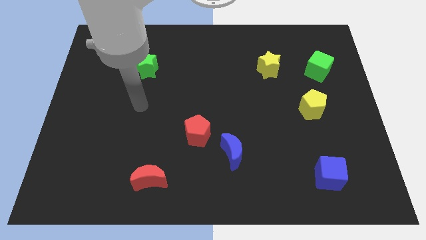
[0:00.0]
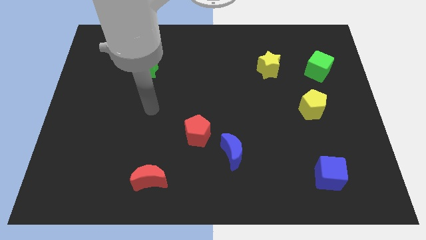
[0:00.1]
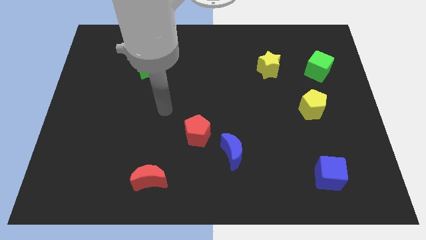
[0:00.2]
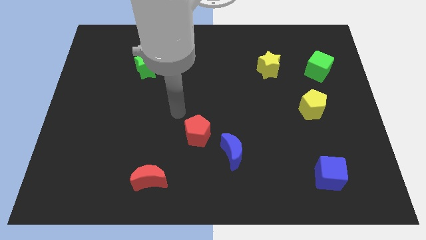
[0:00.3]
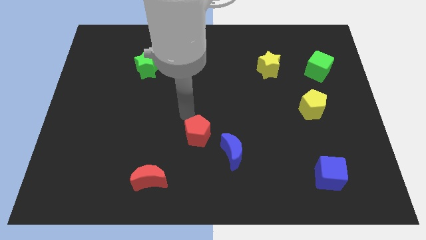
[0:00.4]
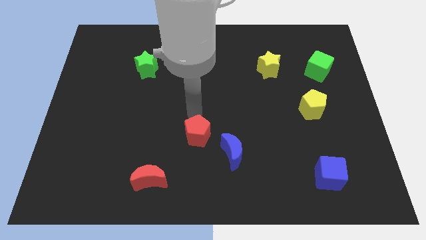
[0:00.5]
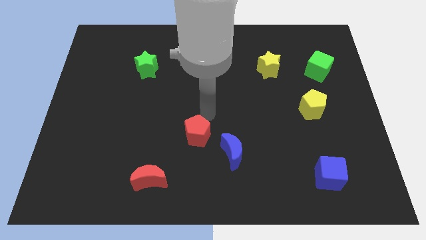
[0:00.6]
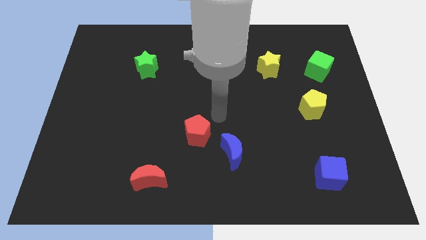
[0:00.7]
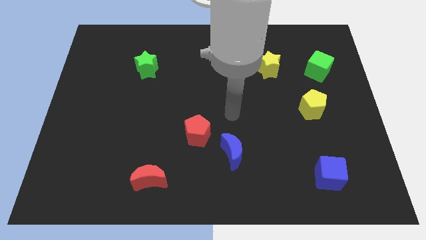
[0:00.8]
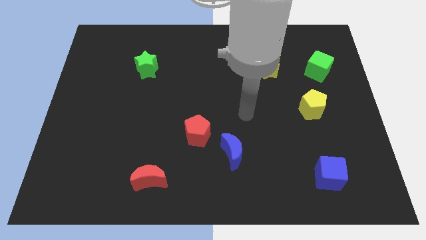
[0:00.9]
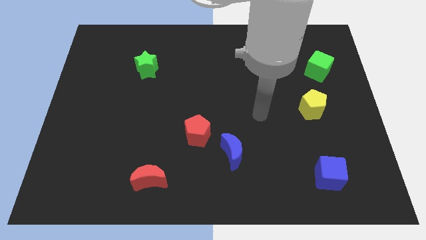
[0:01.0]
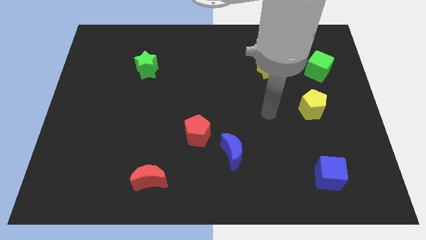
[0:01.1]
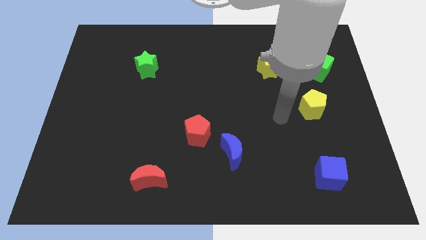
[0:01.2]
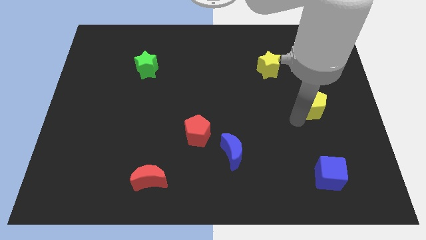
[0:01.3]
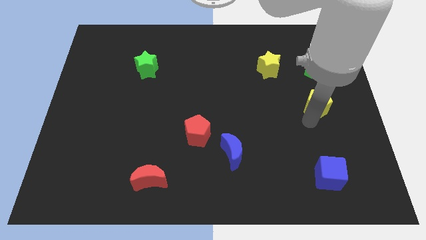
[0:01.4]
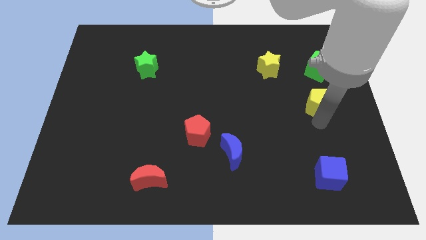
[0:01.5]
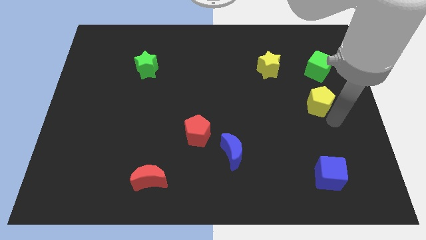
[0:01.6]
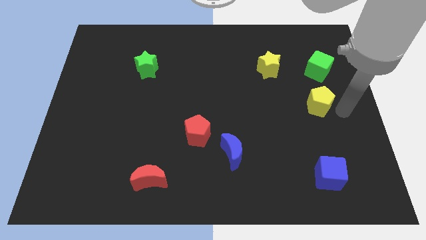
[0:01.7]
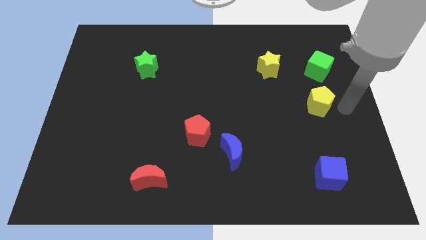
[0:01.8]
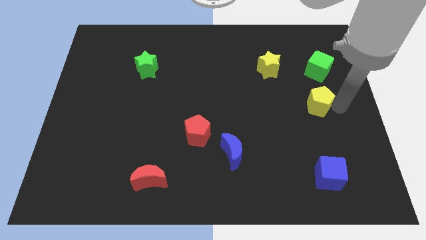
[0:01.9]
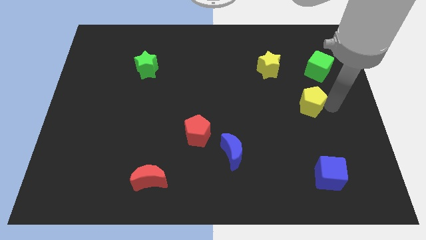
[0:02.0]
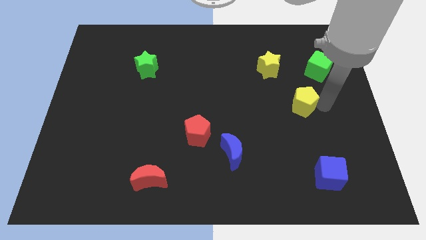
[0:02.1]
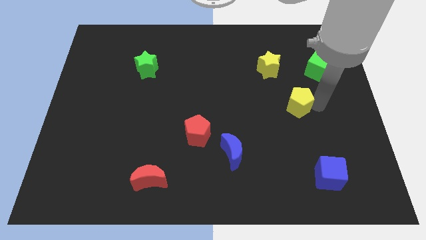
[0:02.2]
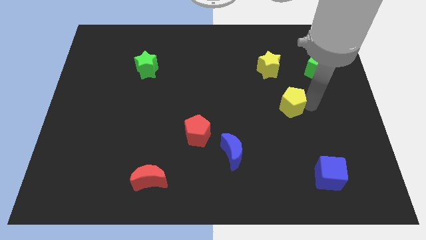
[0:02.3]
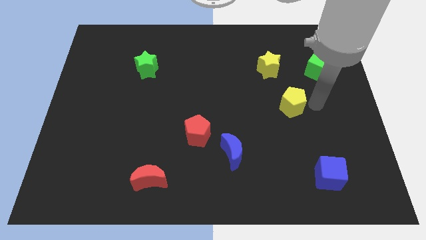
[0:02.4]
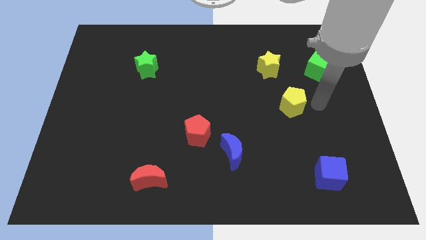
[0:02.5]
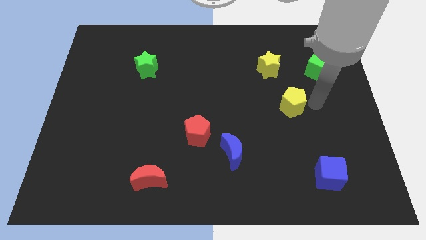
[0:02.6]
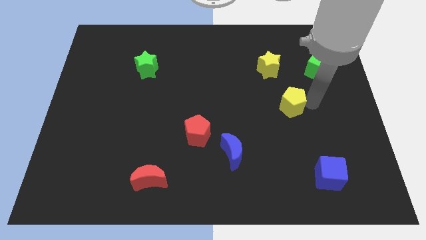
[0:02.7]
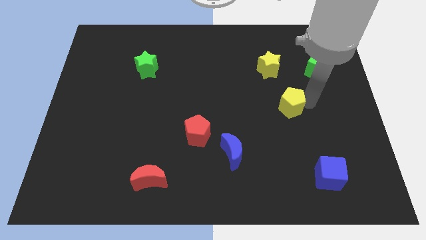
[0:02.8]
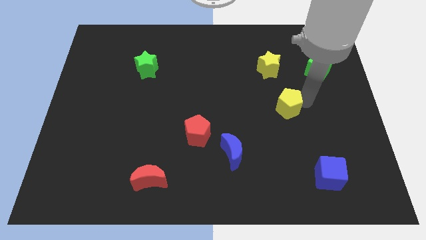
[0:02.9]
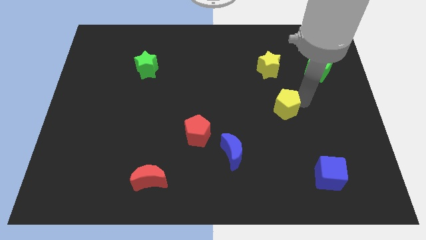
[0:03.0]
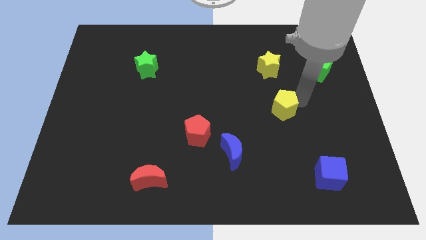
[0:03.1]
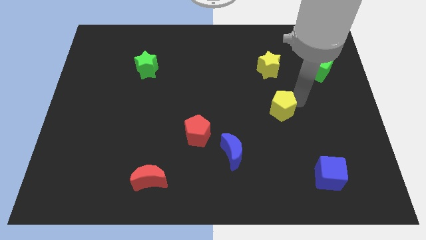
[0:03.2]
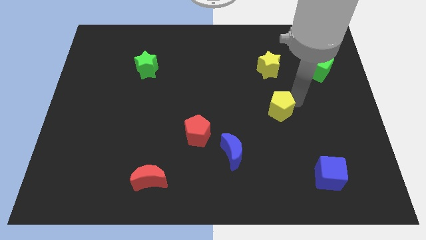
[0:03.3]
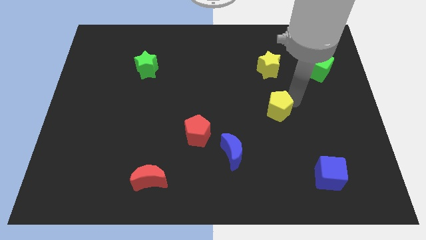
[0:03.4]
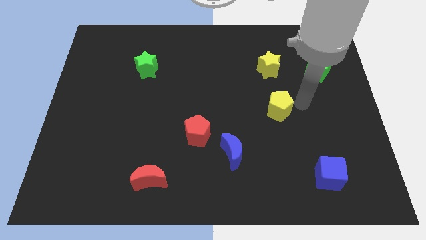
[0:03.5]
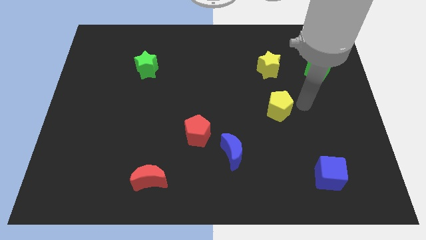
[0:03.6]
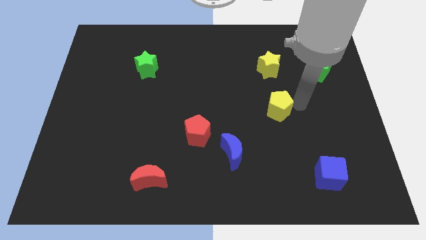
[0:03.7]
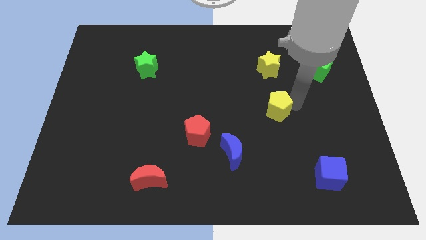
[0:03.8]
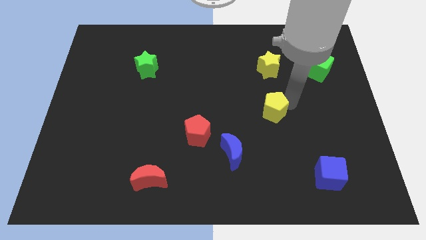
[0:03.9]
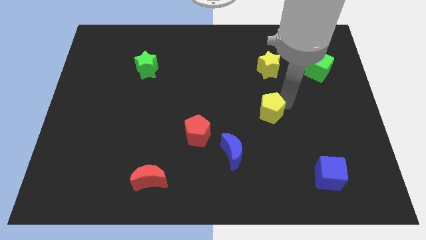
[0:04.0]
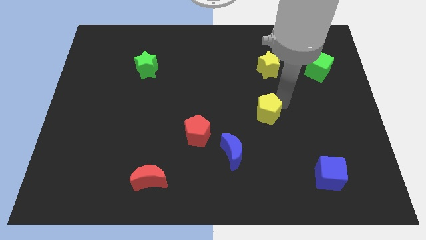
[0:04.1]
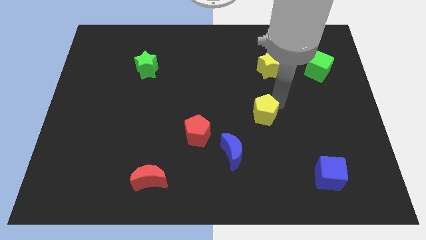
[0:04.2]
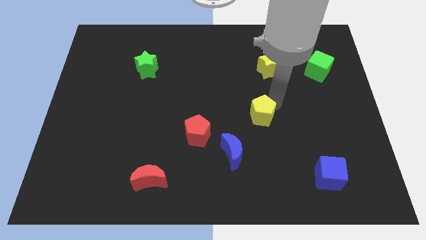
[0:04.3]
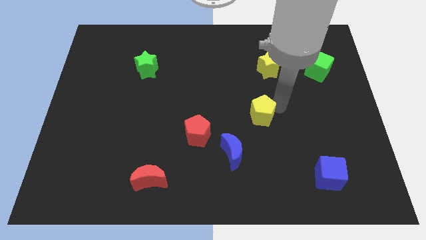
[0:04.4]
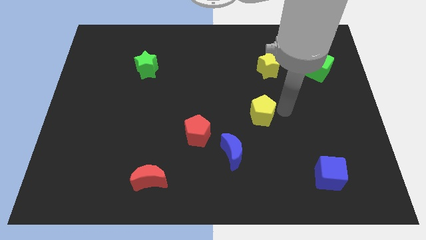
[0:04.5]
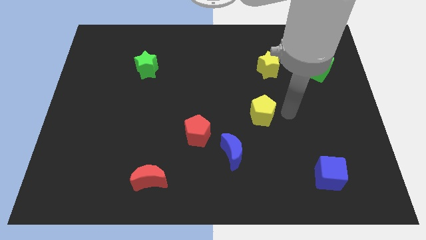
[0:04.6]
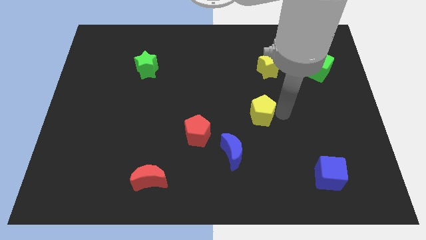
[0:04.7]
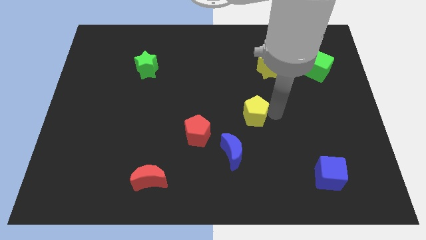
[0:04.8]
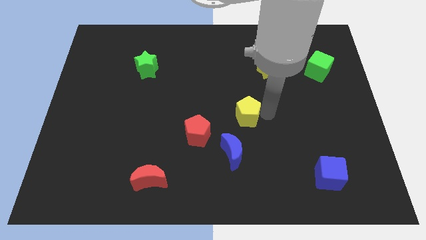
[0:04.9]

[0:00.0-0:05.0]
slide the yellow pentagon to the top side of the blue moon

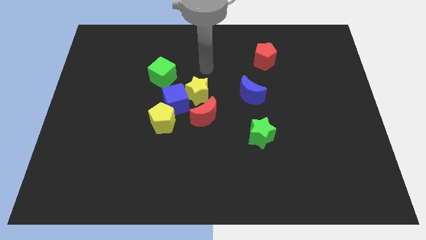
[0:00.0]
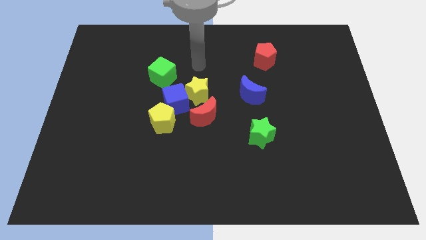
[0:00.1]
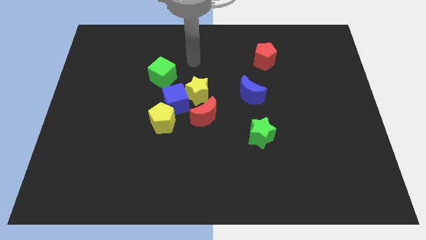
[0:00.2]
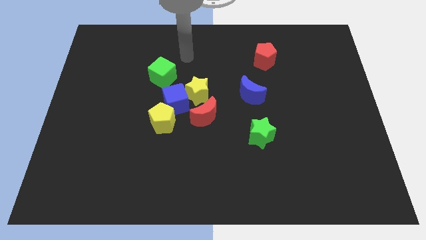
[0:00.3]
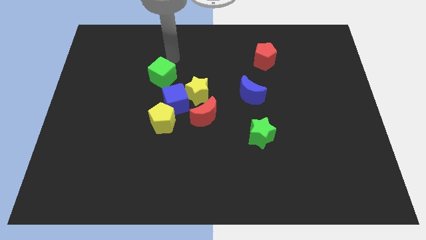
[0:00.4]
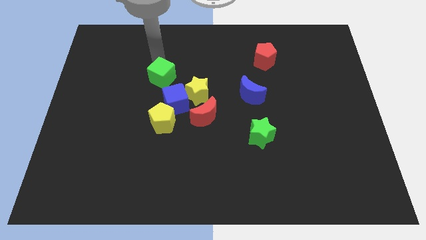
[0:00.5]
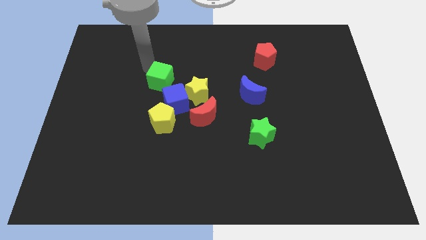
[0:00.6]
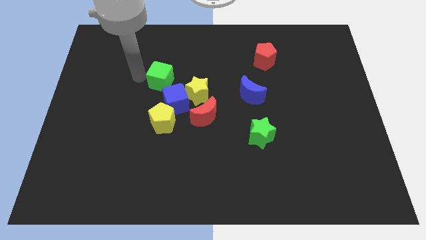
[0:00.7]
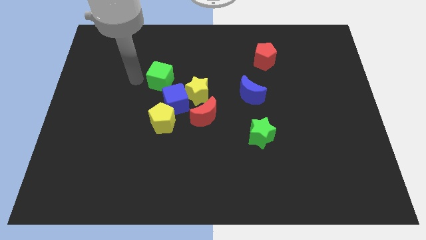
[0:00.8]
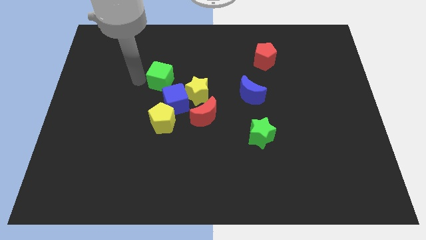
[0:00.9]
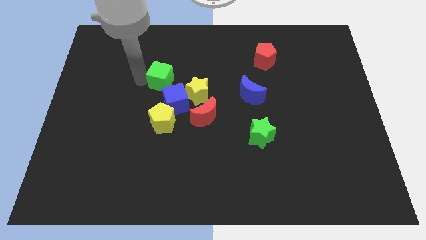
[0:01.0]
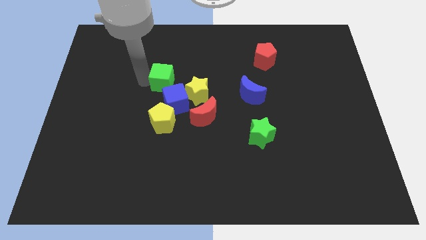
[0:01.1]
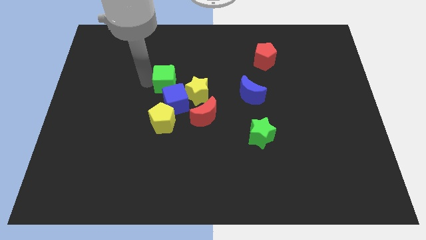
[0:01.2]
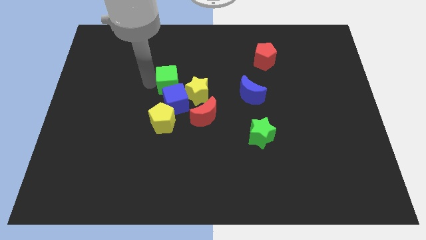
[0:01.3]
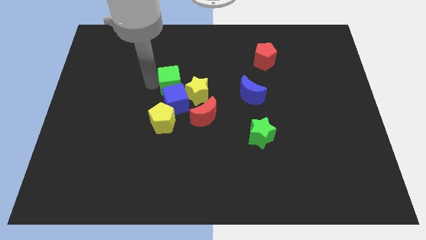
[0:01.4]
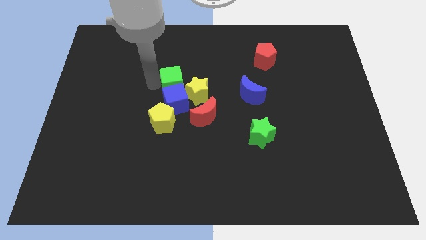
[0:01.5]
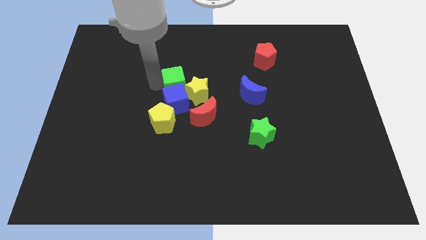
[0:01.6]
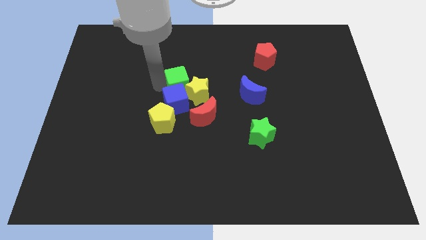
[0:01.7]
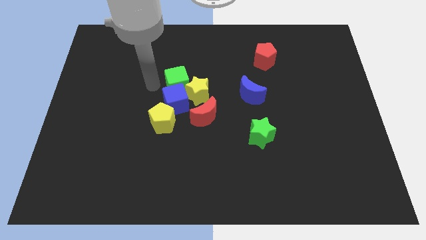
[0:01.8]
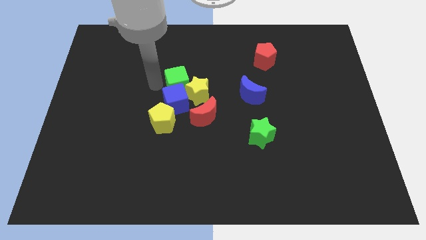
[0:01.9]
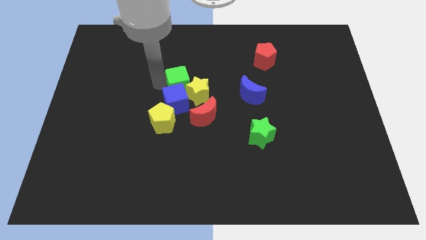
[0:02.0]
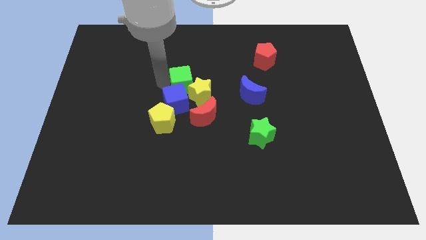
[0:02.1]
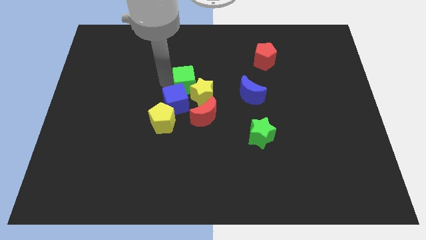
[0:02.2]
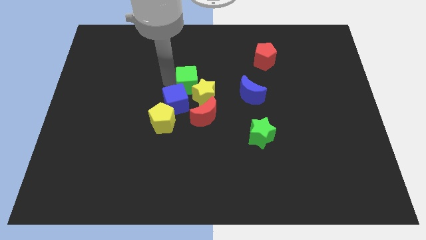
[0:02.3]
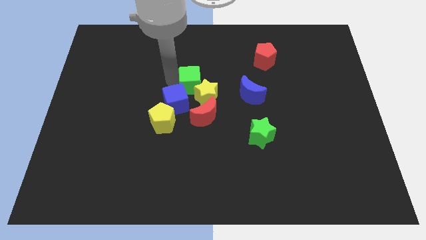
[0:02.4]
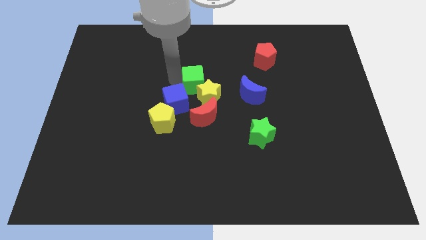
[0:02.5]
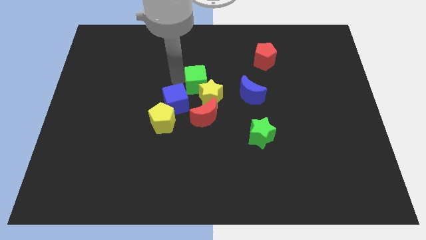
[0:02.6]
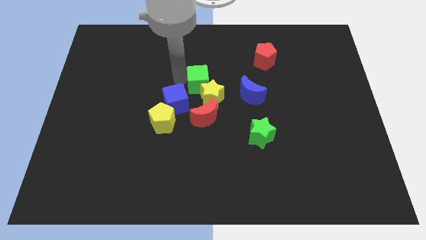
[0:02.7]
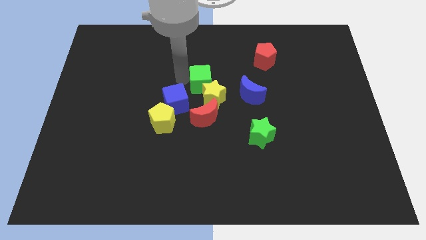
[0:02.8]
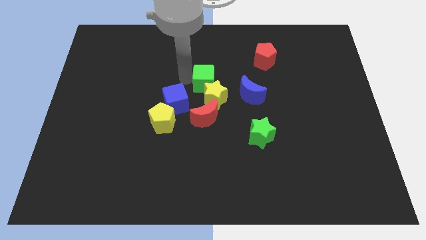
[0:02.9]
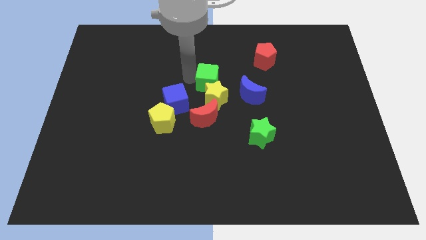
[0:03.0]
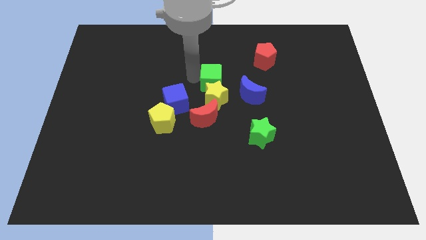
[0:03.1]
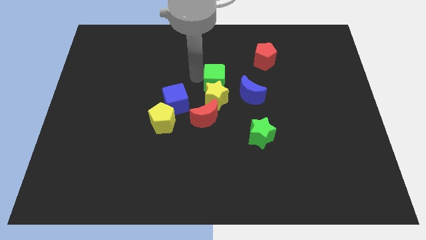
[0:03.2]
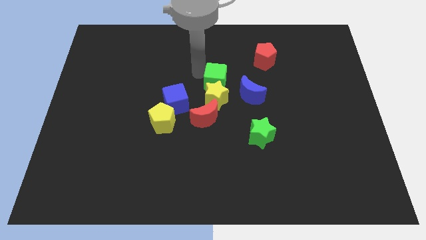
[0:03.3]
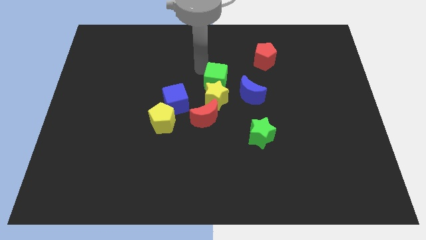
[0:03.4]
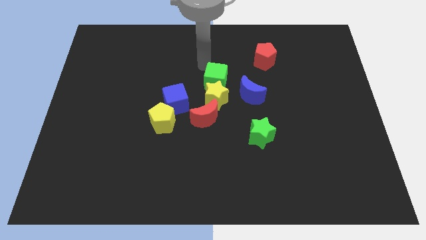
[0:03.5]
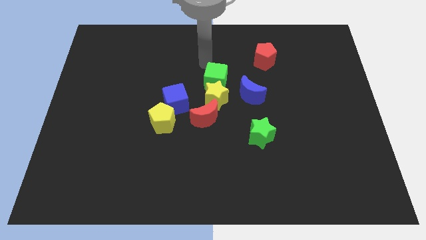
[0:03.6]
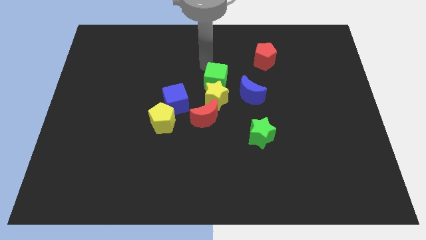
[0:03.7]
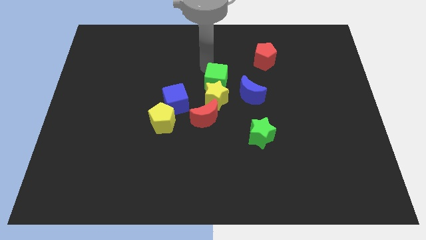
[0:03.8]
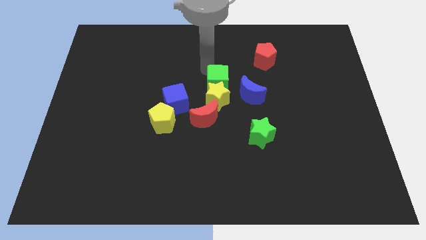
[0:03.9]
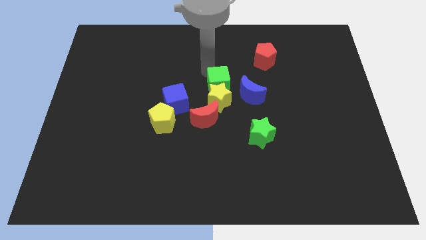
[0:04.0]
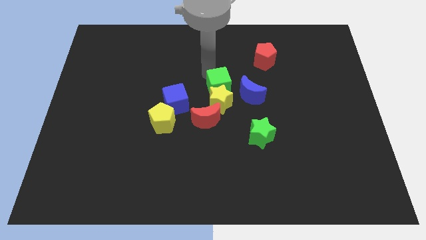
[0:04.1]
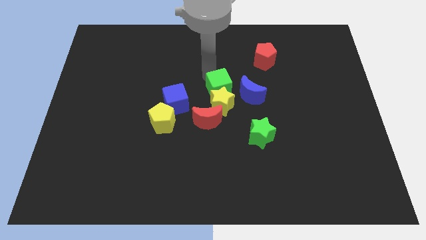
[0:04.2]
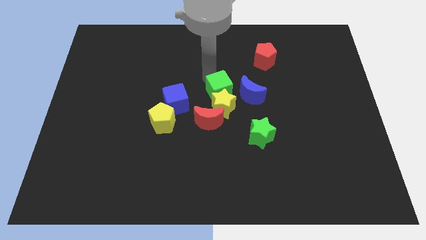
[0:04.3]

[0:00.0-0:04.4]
put the green cube diagonally up and to the right of the red moon
